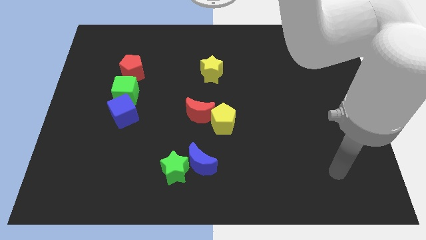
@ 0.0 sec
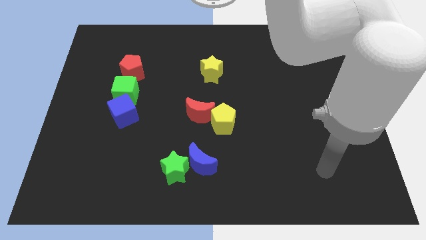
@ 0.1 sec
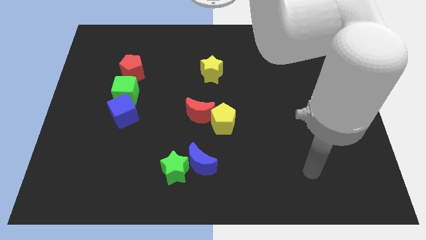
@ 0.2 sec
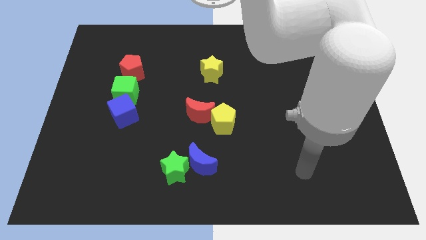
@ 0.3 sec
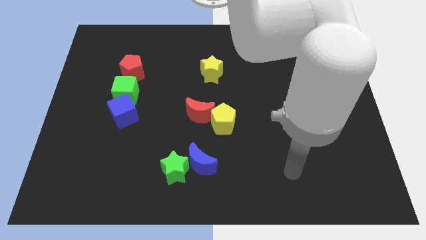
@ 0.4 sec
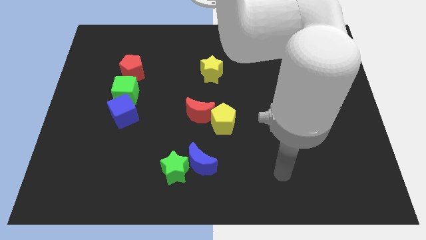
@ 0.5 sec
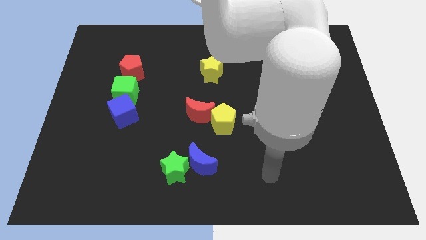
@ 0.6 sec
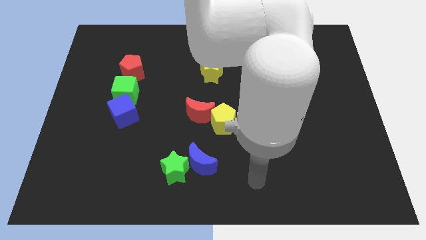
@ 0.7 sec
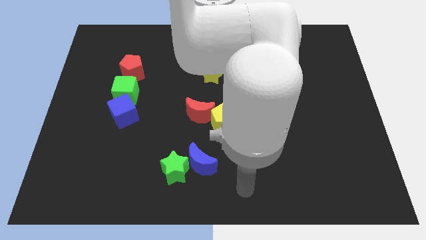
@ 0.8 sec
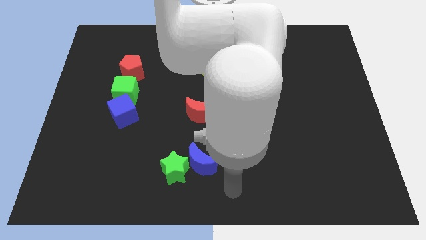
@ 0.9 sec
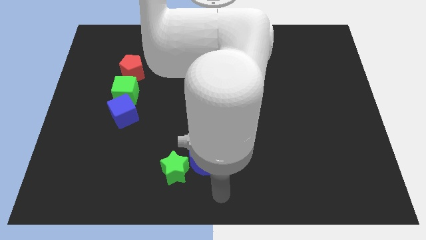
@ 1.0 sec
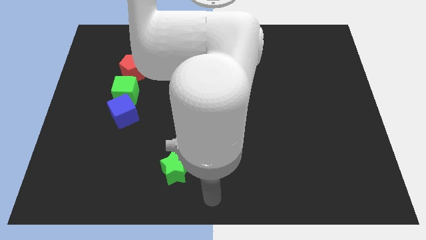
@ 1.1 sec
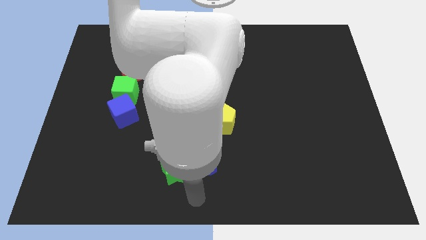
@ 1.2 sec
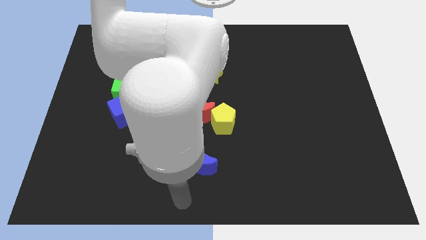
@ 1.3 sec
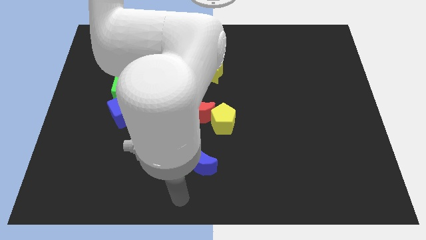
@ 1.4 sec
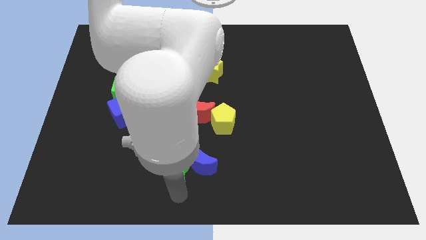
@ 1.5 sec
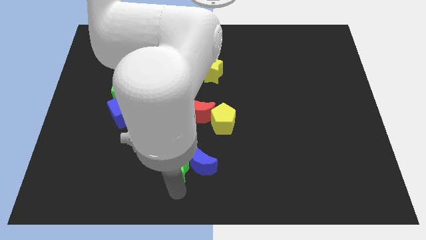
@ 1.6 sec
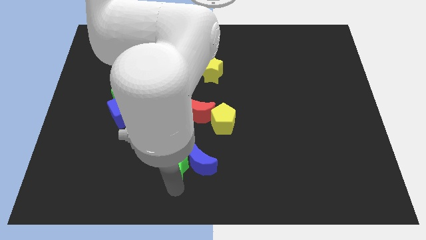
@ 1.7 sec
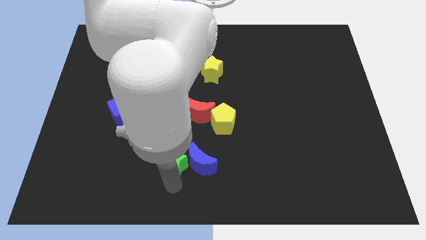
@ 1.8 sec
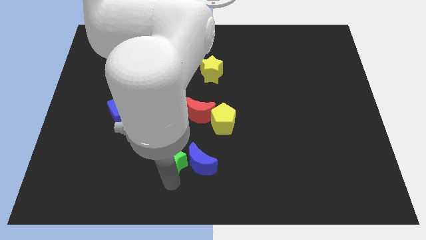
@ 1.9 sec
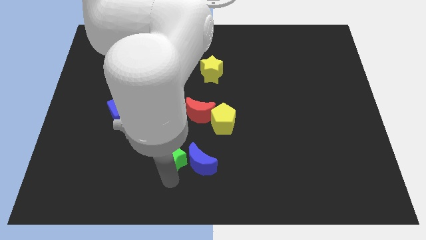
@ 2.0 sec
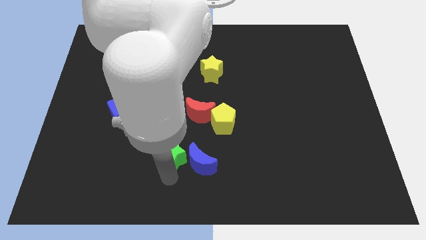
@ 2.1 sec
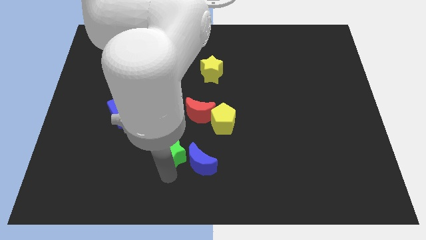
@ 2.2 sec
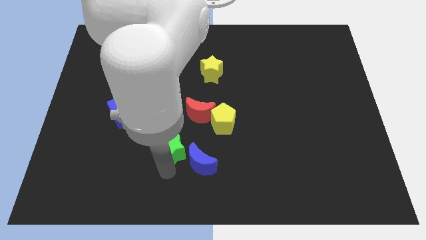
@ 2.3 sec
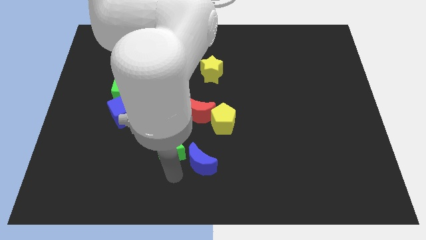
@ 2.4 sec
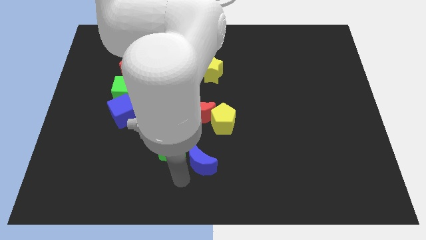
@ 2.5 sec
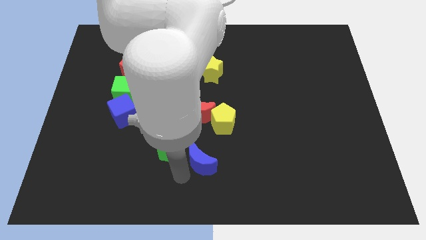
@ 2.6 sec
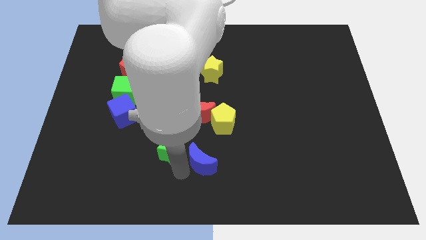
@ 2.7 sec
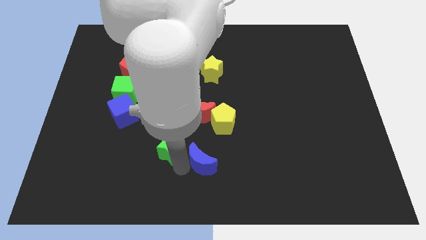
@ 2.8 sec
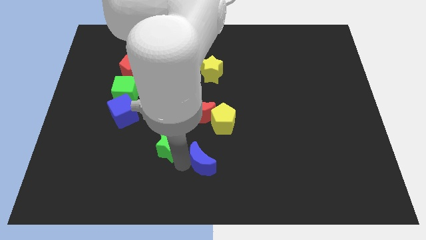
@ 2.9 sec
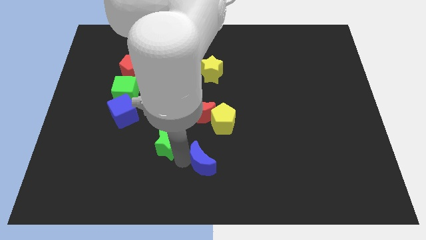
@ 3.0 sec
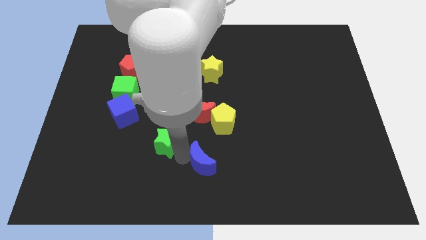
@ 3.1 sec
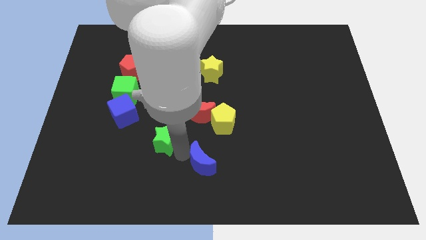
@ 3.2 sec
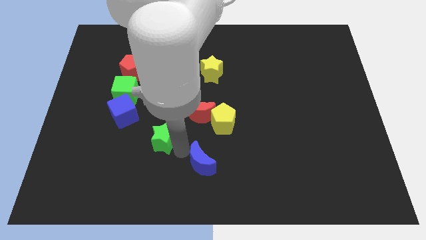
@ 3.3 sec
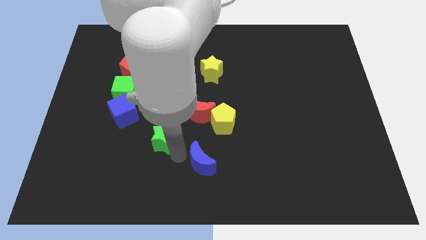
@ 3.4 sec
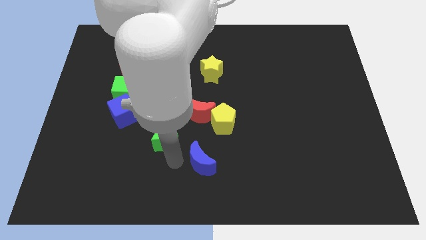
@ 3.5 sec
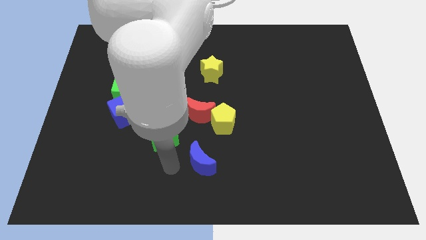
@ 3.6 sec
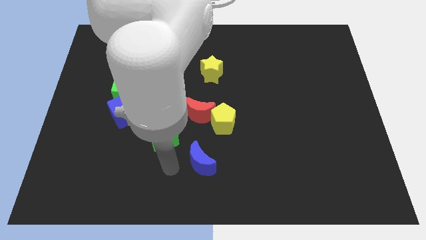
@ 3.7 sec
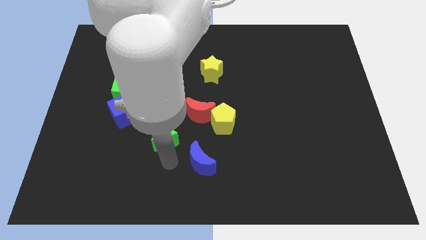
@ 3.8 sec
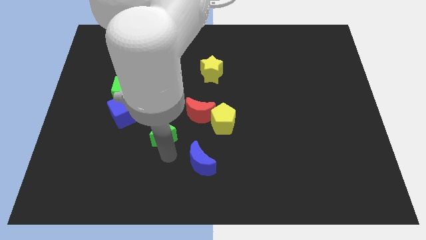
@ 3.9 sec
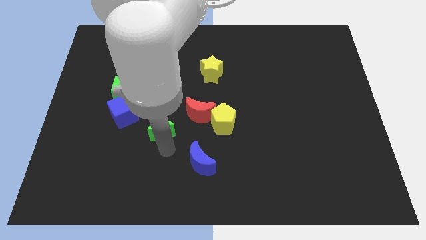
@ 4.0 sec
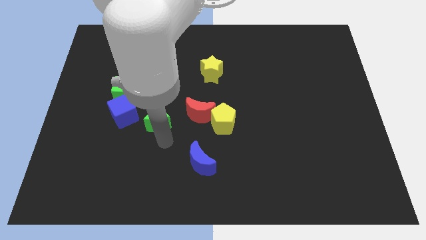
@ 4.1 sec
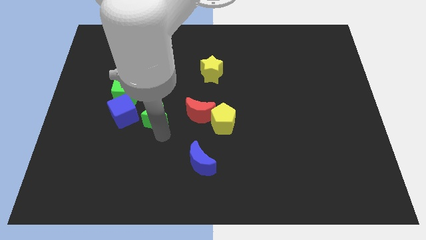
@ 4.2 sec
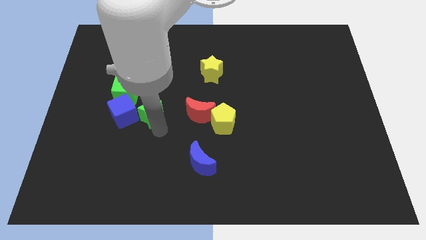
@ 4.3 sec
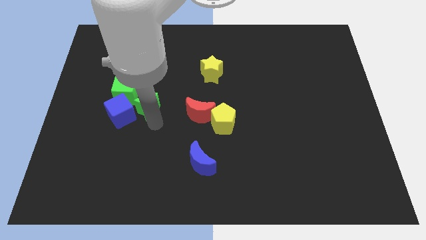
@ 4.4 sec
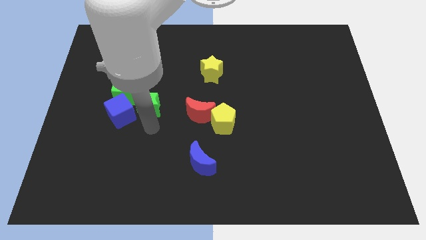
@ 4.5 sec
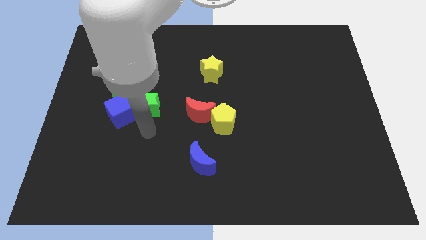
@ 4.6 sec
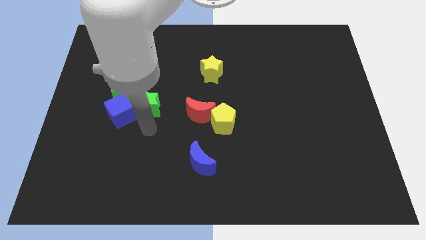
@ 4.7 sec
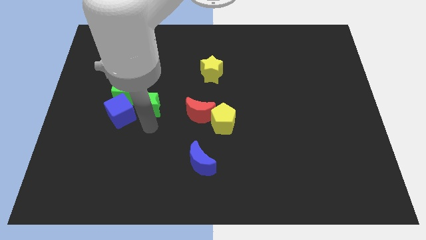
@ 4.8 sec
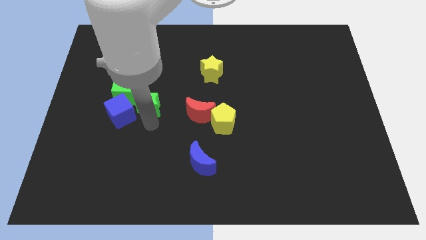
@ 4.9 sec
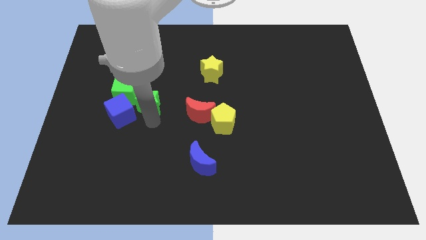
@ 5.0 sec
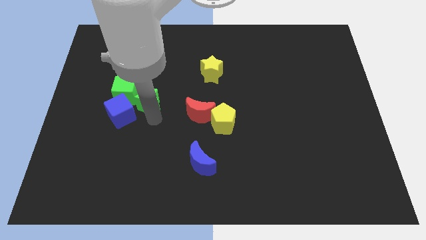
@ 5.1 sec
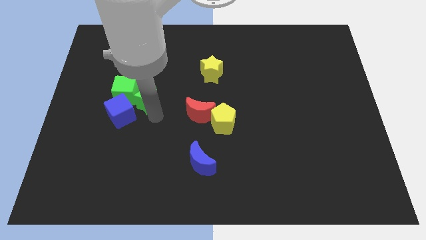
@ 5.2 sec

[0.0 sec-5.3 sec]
move the green star to the bottom right of the red pentagon

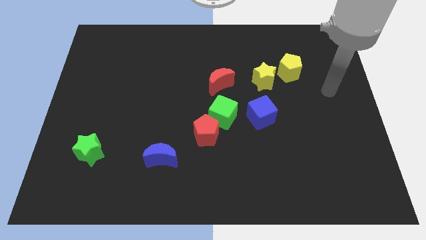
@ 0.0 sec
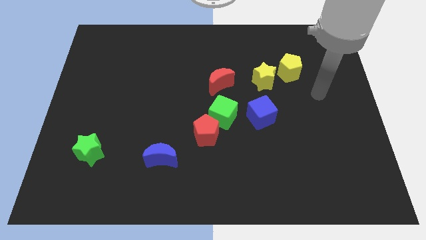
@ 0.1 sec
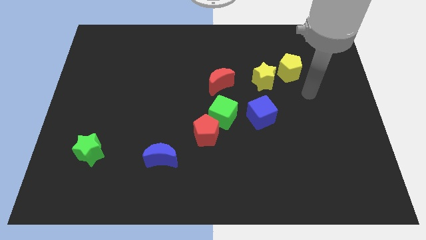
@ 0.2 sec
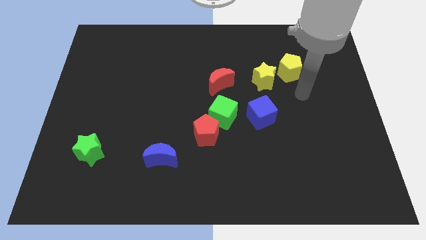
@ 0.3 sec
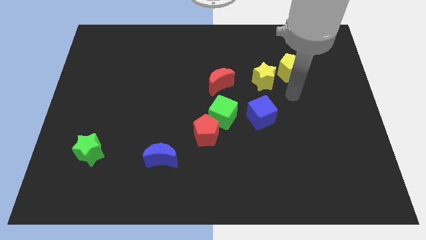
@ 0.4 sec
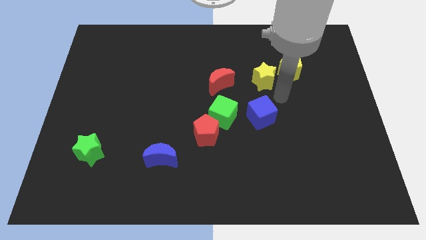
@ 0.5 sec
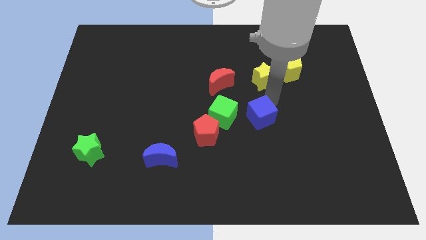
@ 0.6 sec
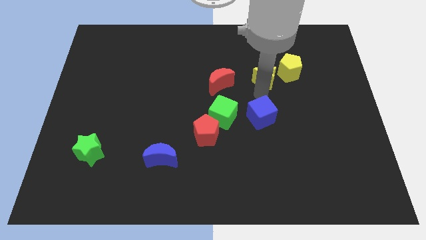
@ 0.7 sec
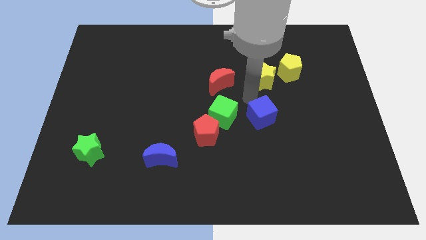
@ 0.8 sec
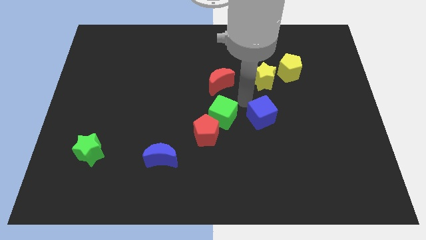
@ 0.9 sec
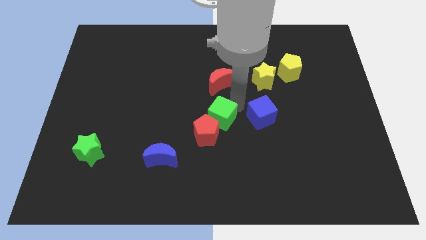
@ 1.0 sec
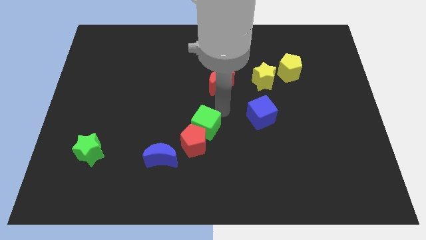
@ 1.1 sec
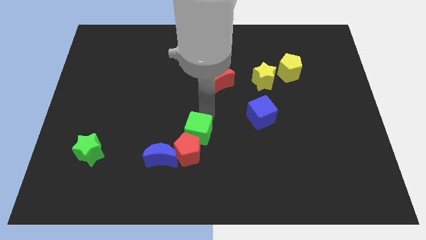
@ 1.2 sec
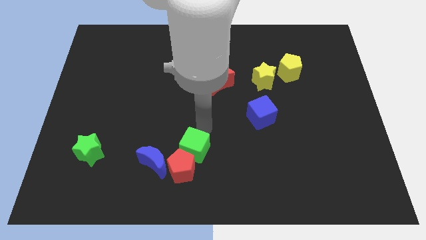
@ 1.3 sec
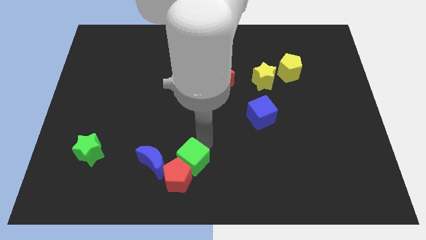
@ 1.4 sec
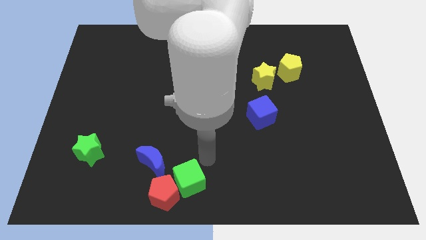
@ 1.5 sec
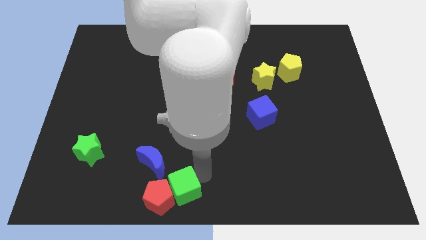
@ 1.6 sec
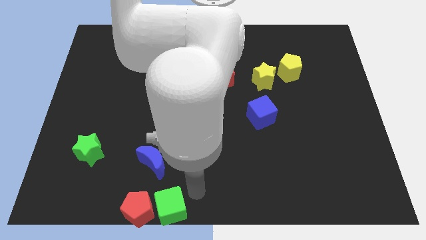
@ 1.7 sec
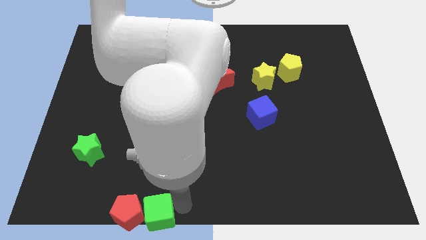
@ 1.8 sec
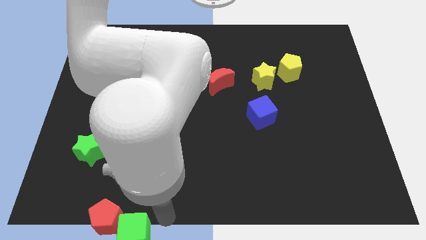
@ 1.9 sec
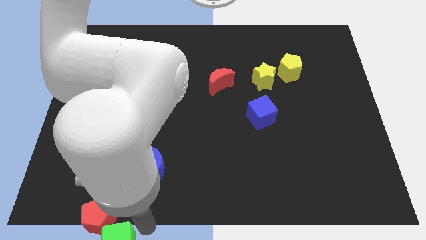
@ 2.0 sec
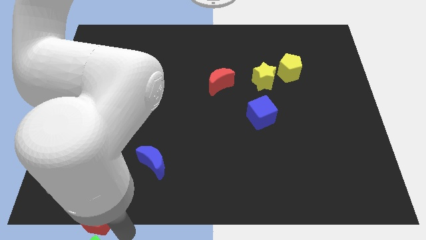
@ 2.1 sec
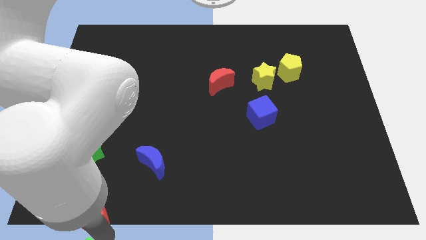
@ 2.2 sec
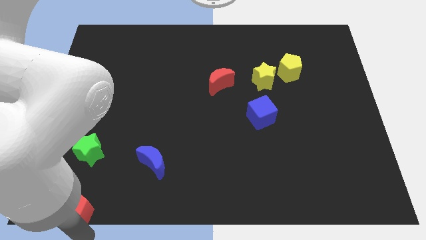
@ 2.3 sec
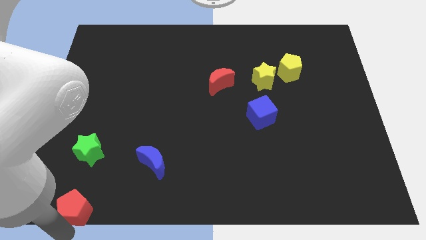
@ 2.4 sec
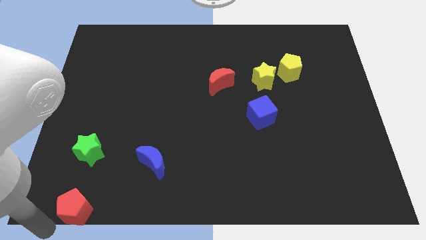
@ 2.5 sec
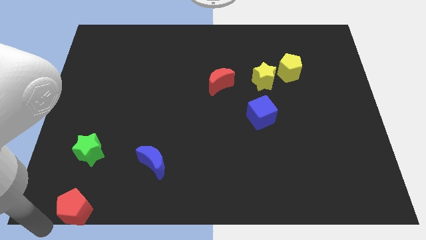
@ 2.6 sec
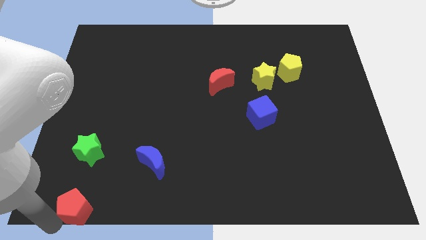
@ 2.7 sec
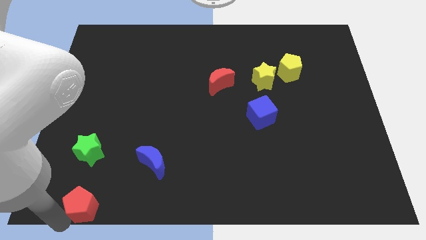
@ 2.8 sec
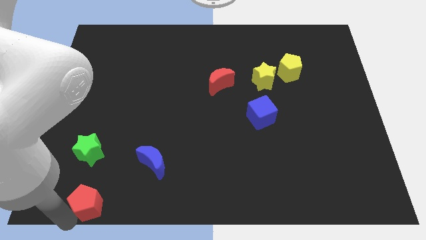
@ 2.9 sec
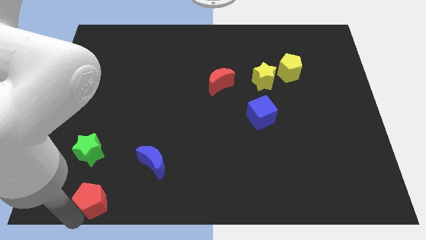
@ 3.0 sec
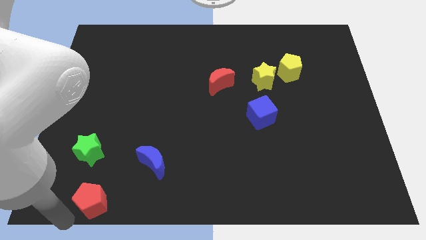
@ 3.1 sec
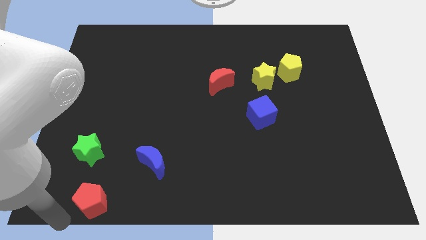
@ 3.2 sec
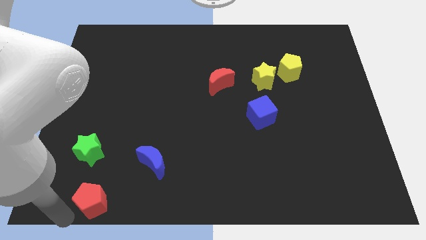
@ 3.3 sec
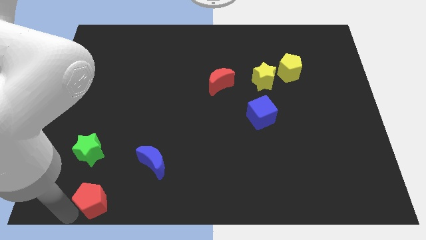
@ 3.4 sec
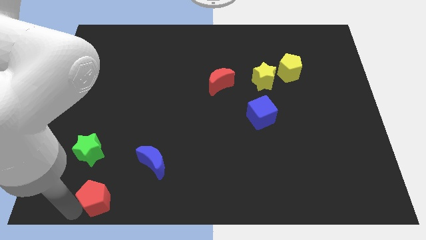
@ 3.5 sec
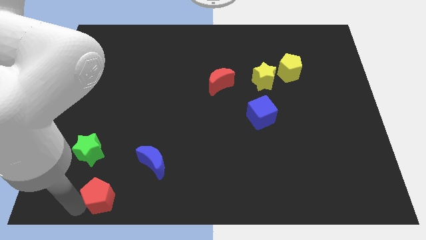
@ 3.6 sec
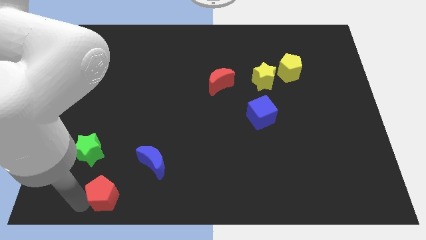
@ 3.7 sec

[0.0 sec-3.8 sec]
move the red pentagon to the bottom right of the green star
